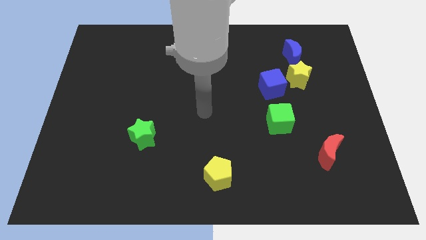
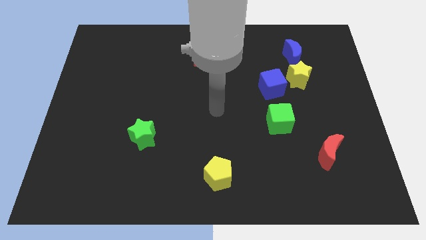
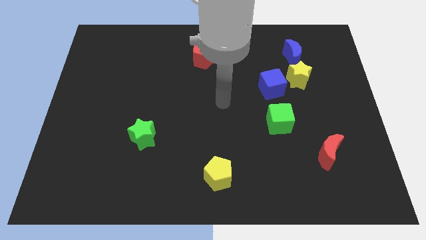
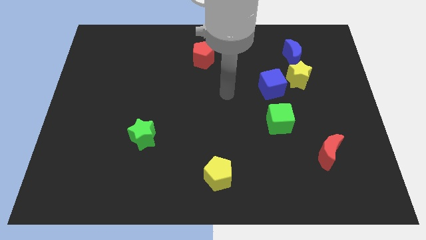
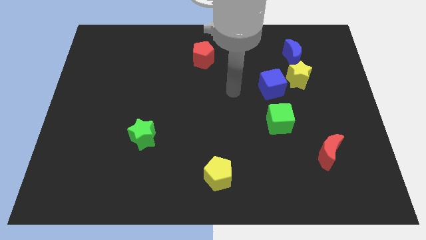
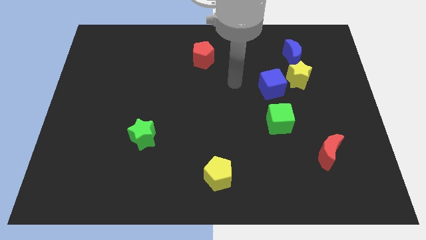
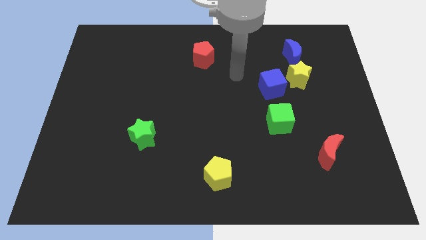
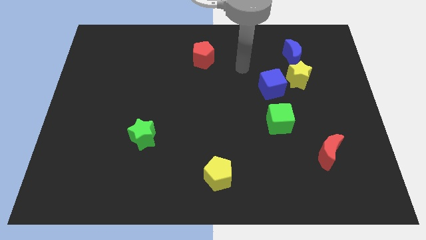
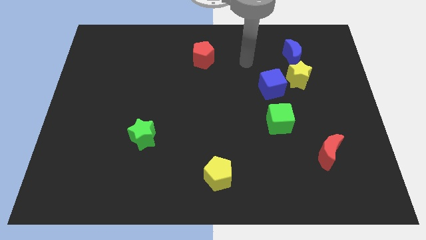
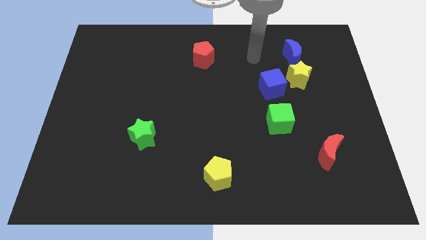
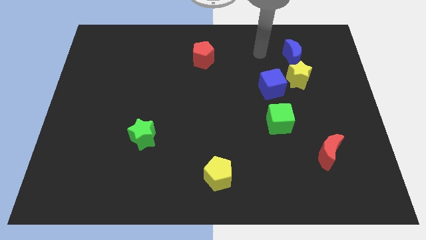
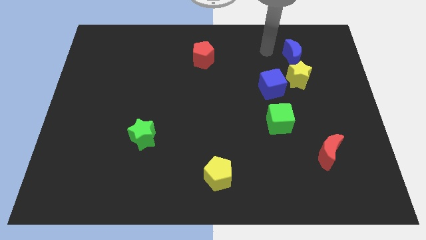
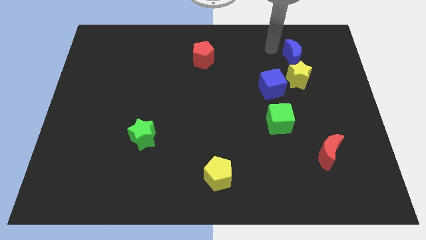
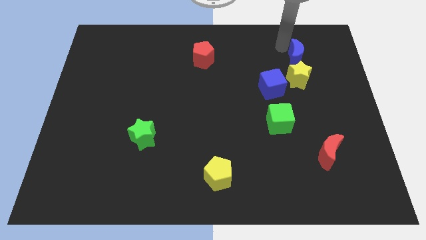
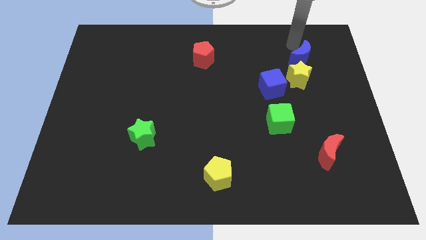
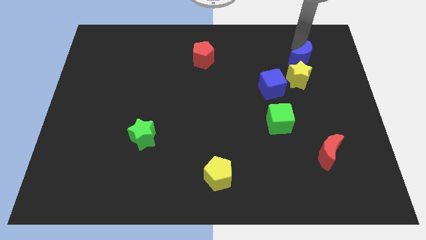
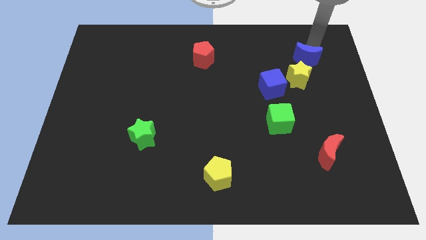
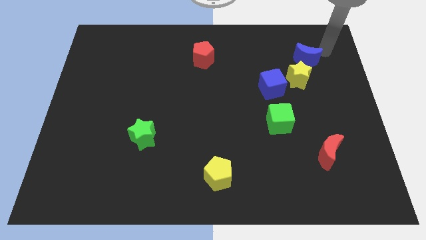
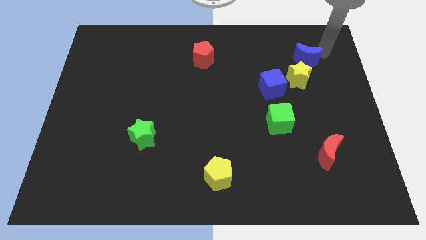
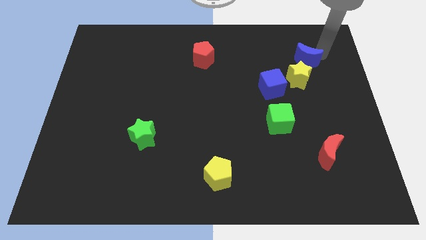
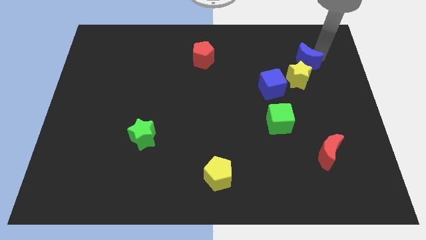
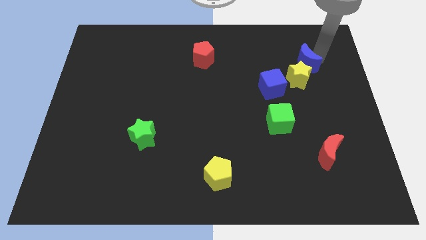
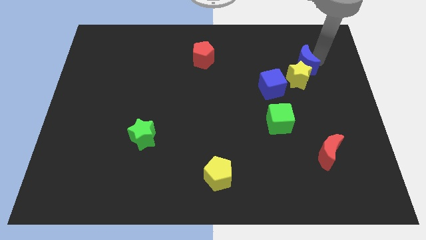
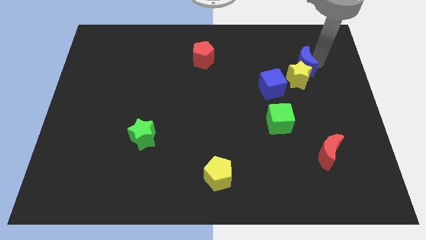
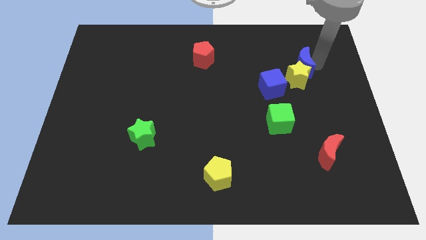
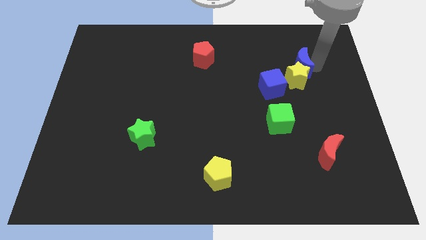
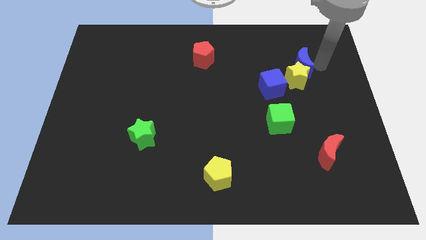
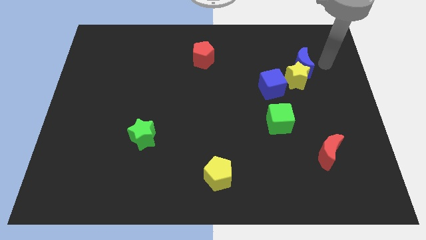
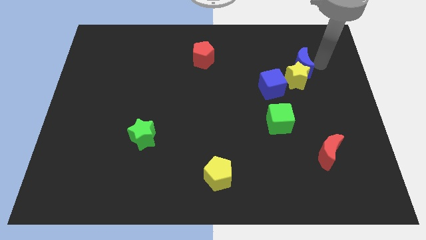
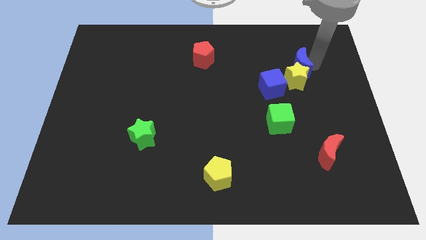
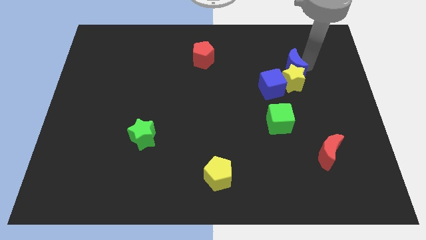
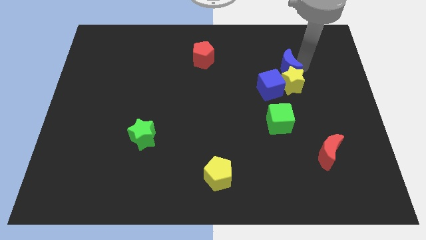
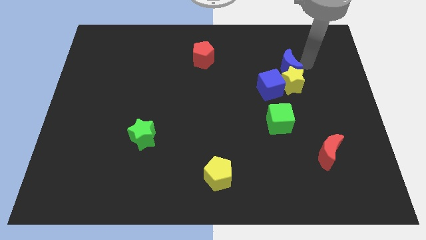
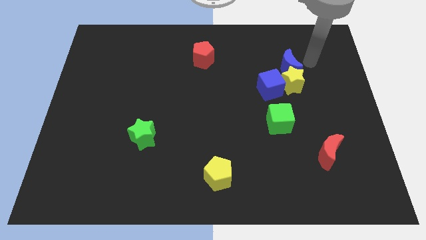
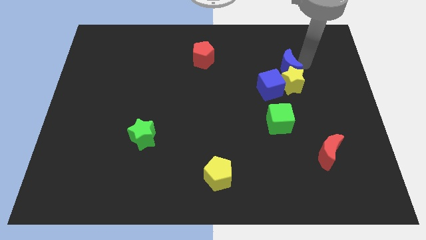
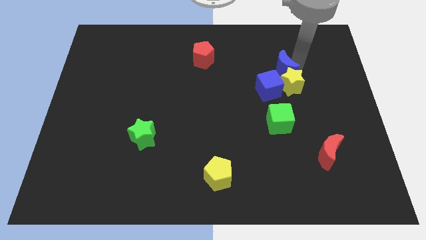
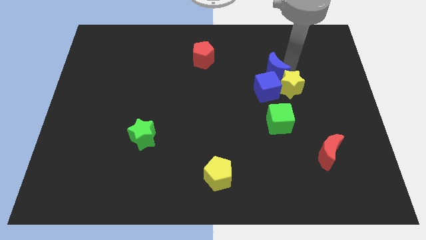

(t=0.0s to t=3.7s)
slightly push the blue moon down and left

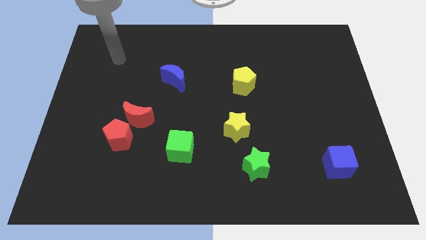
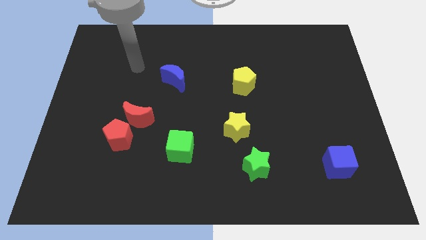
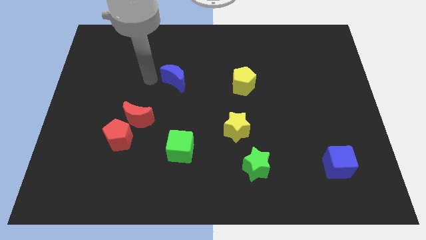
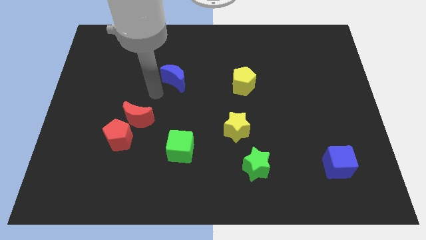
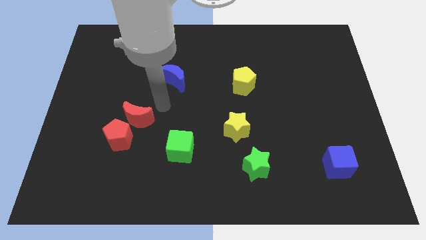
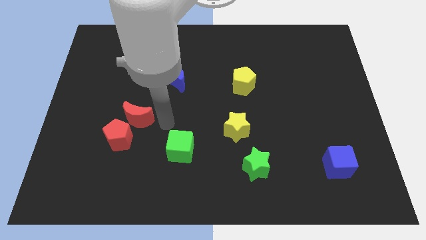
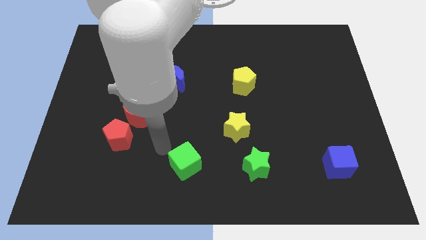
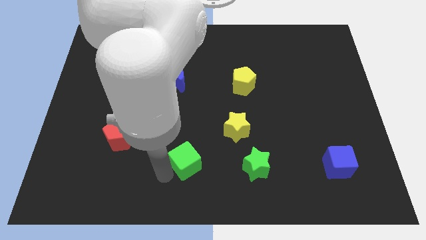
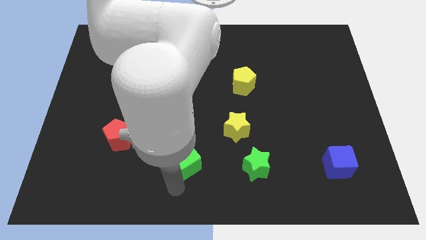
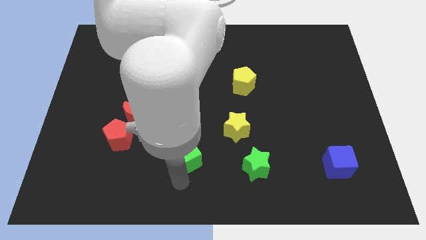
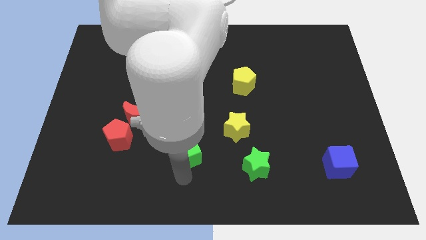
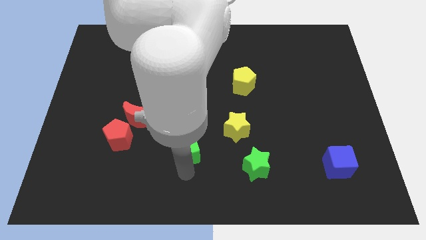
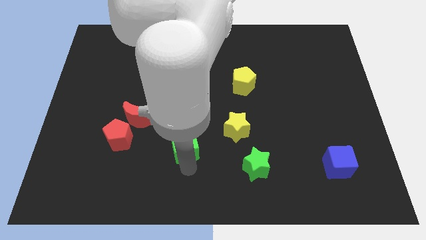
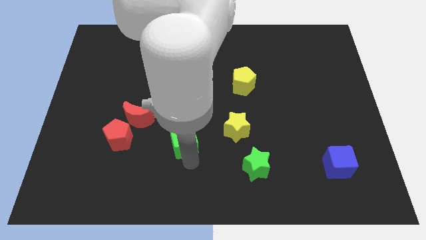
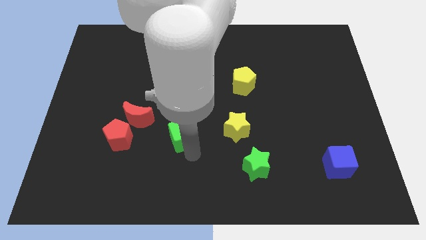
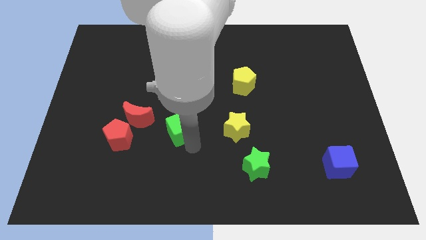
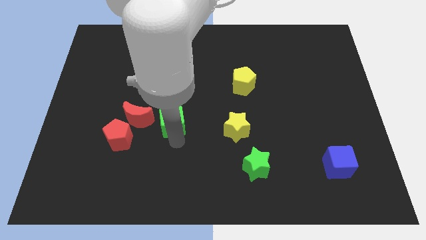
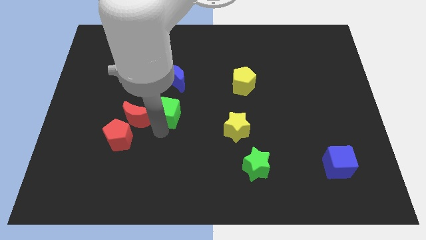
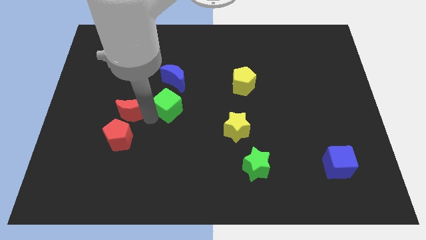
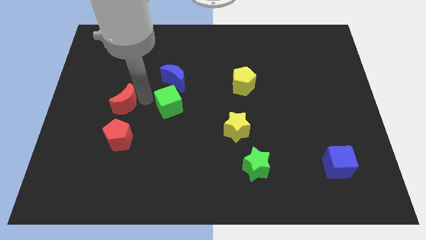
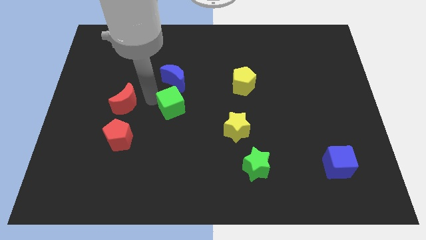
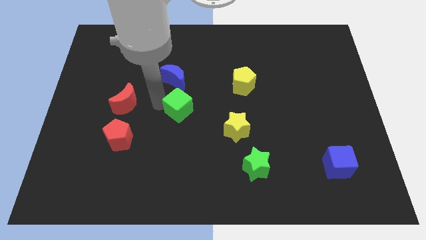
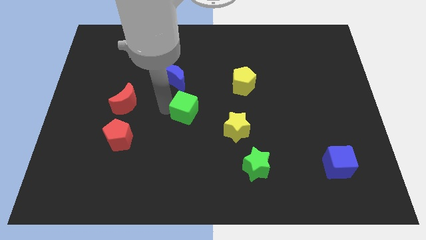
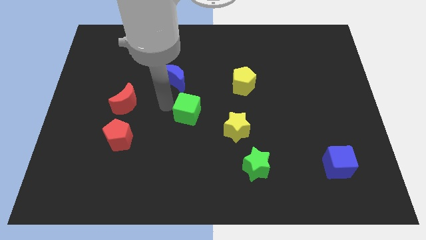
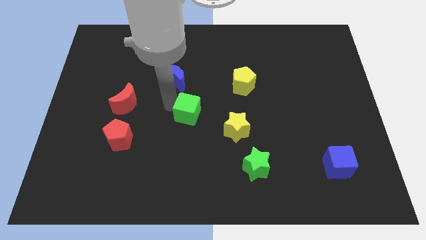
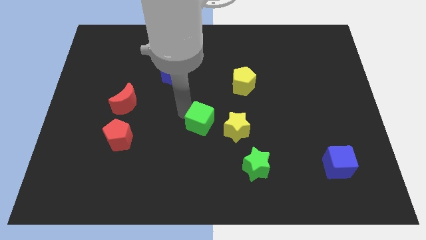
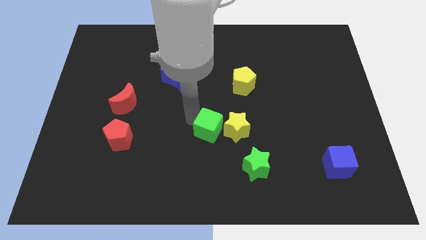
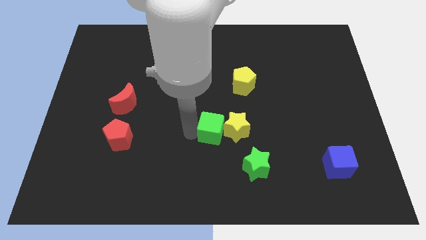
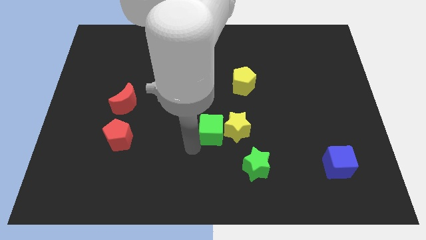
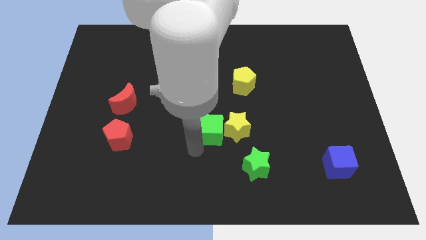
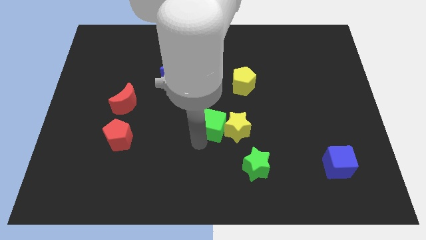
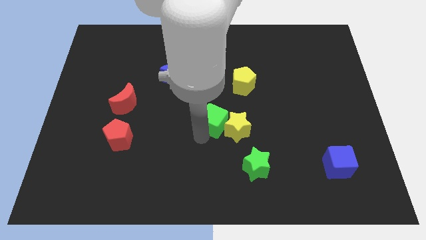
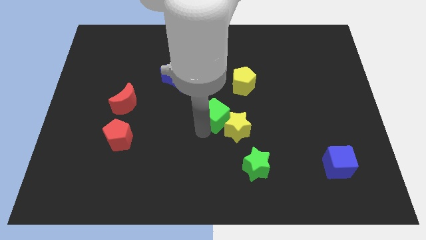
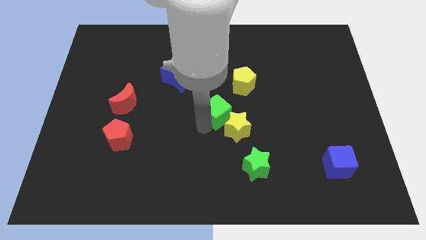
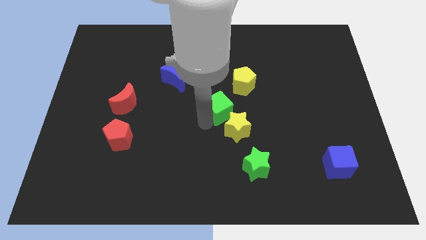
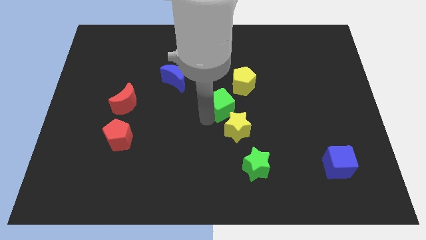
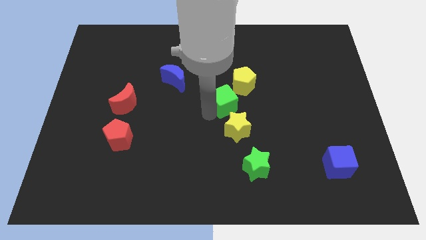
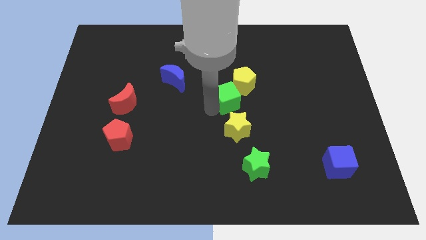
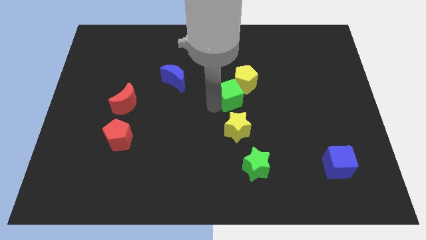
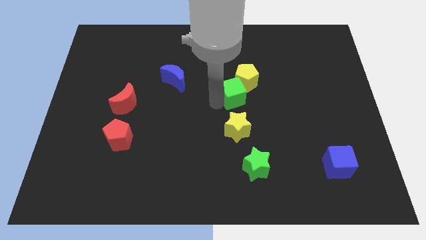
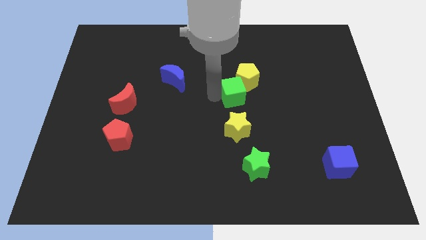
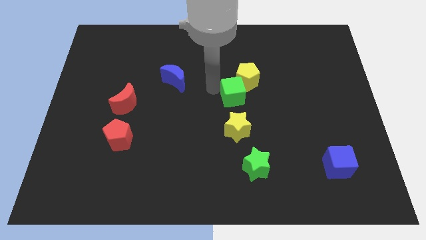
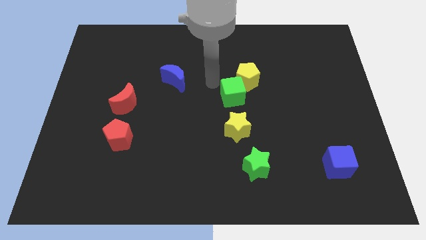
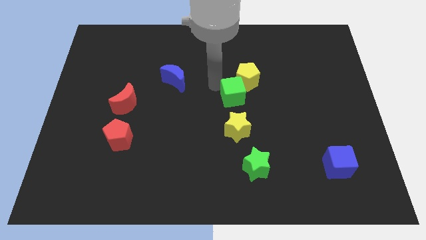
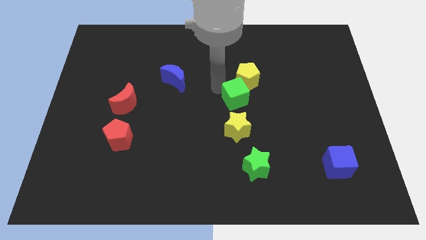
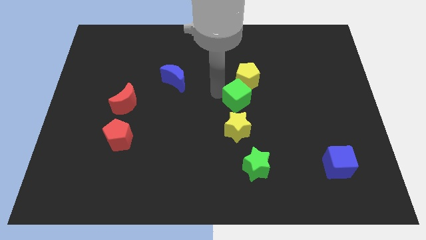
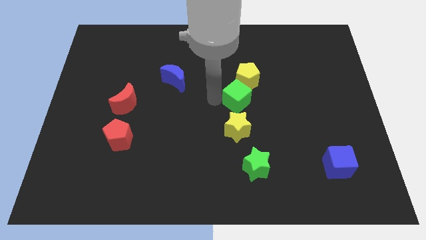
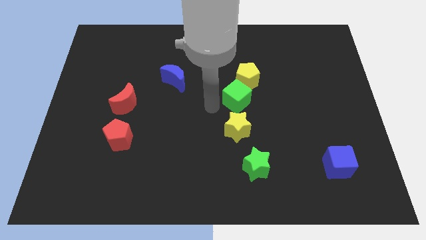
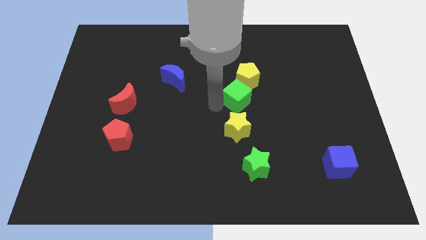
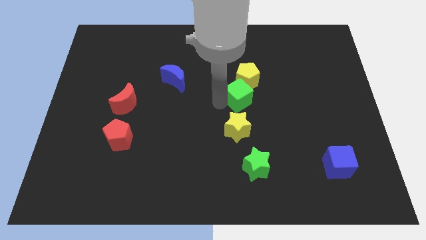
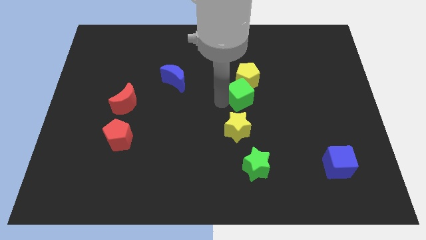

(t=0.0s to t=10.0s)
slide the green cube upwards and right diagonally
